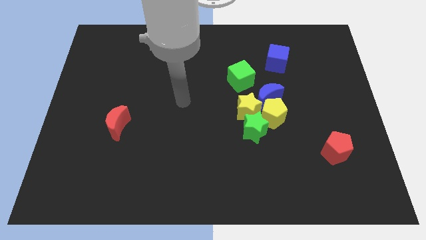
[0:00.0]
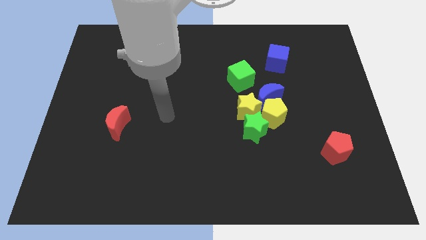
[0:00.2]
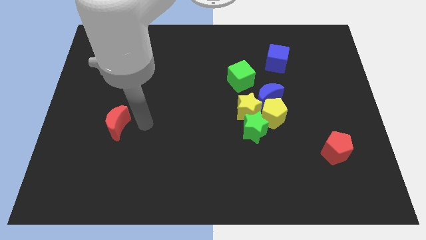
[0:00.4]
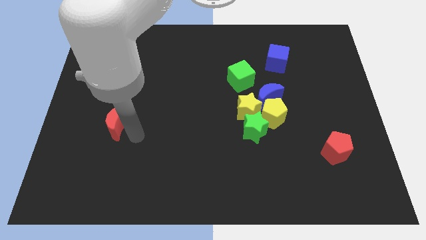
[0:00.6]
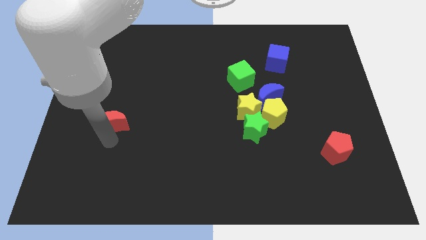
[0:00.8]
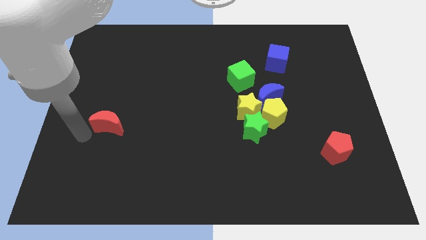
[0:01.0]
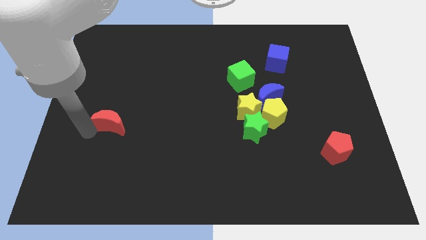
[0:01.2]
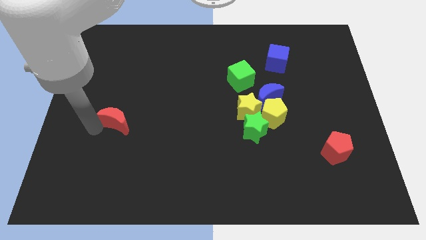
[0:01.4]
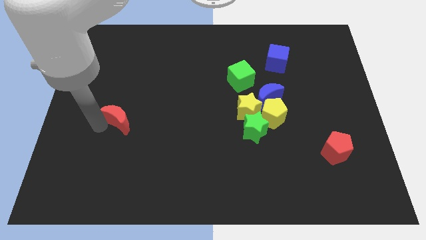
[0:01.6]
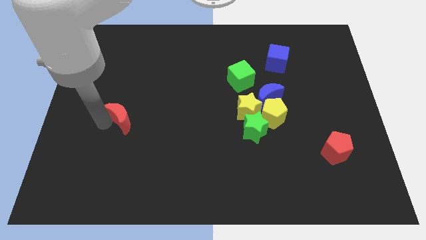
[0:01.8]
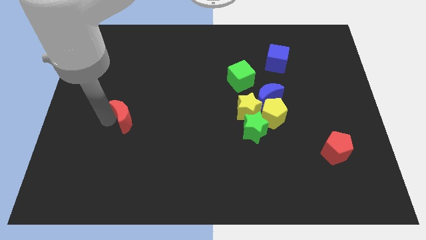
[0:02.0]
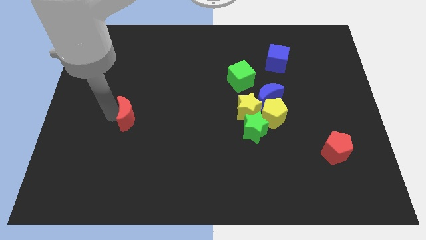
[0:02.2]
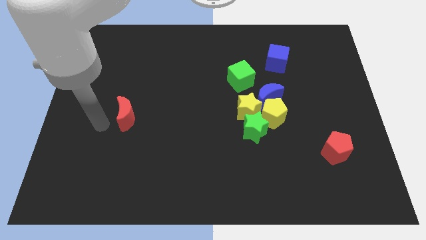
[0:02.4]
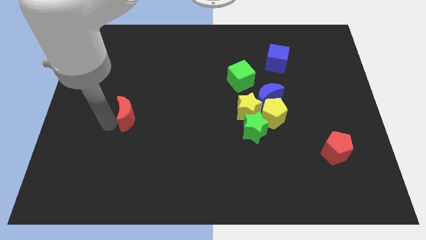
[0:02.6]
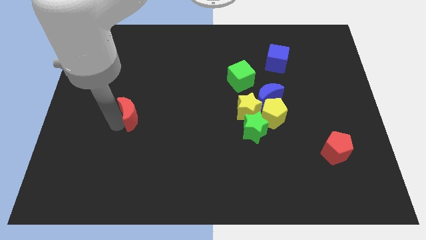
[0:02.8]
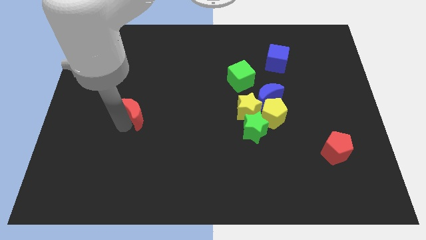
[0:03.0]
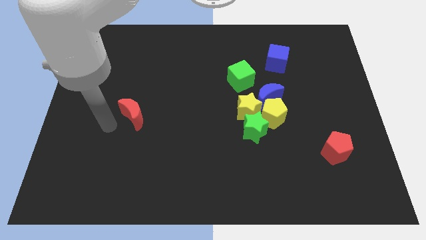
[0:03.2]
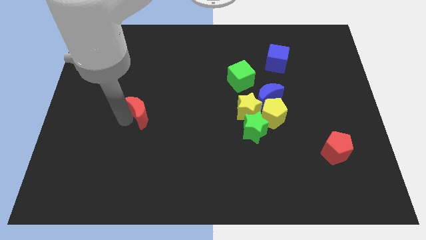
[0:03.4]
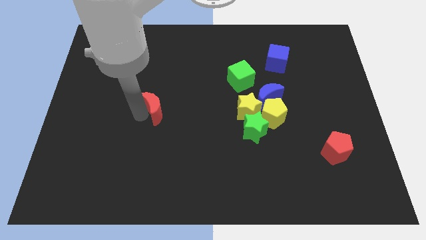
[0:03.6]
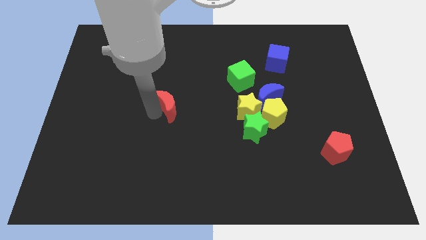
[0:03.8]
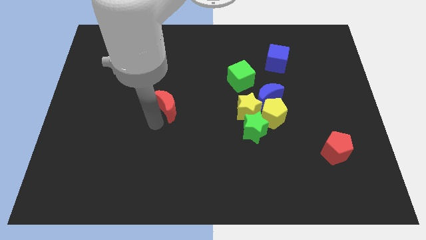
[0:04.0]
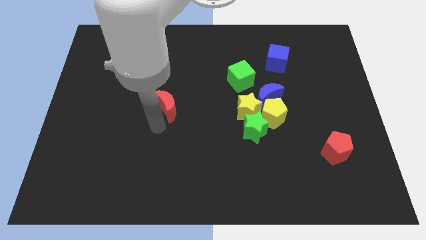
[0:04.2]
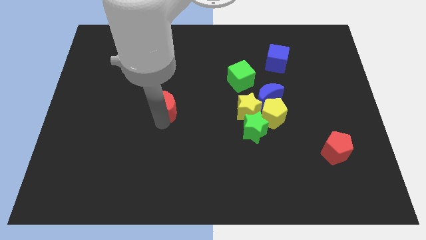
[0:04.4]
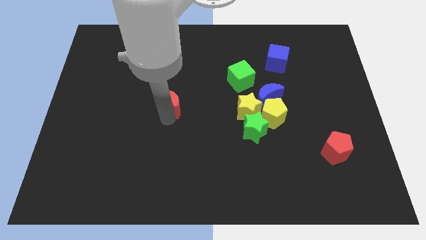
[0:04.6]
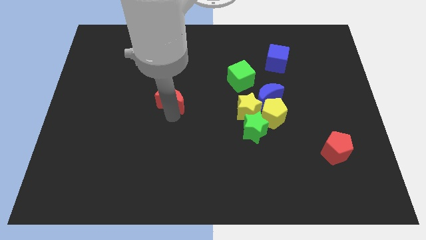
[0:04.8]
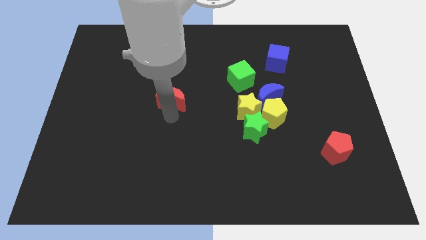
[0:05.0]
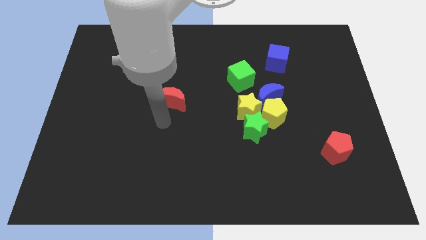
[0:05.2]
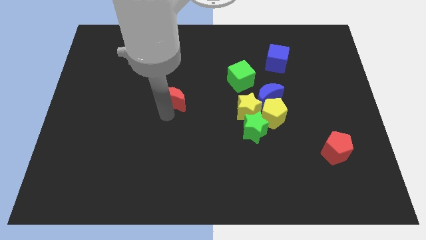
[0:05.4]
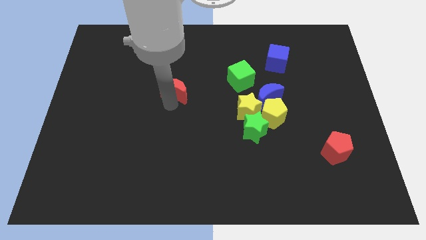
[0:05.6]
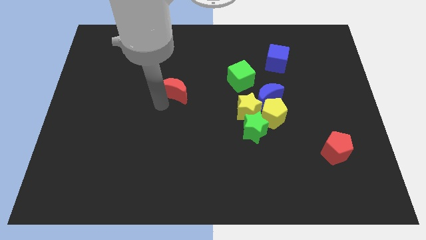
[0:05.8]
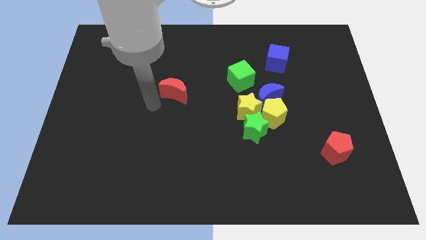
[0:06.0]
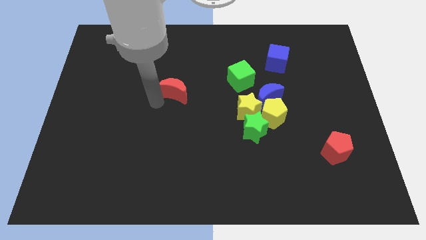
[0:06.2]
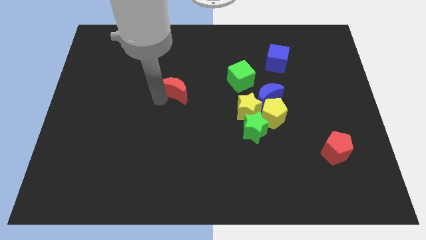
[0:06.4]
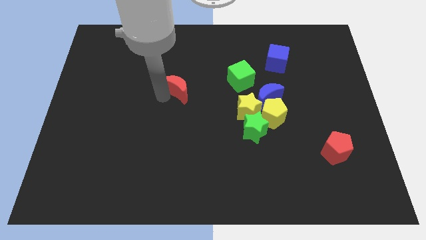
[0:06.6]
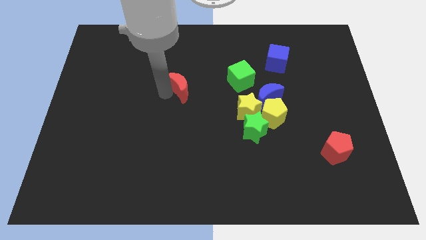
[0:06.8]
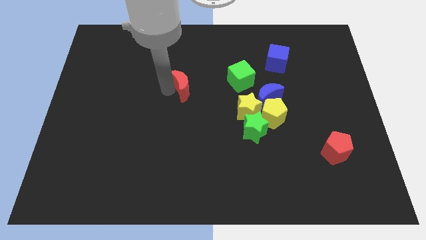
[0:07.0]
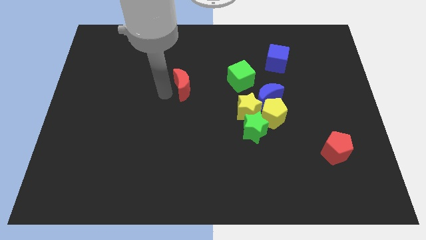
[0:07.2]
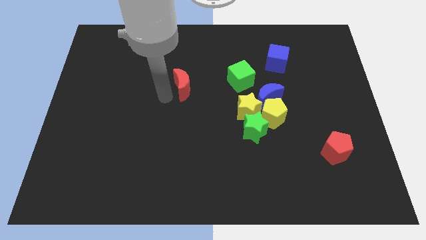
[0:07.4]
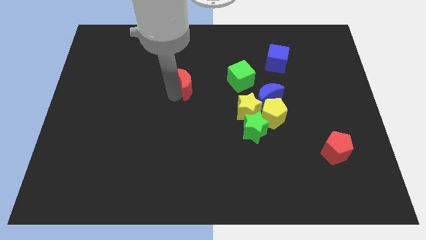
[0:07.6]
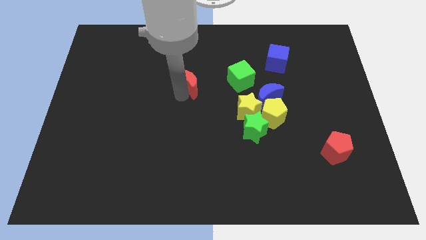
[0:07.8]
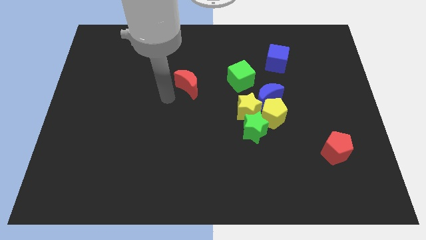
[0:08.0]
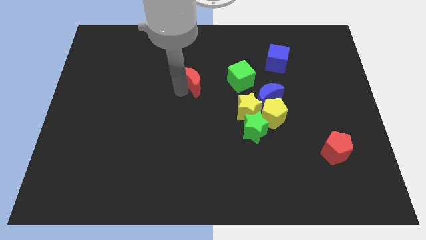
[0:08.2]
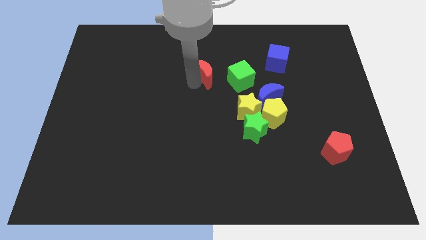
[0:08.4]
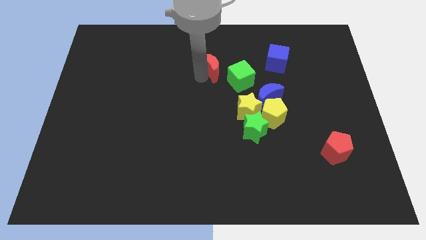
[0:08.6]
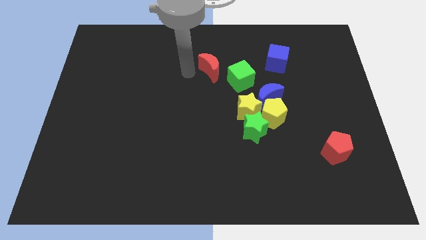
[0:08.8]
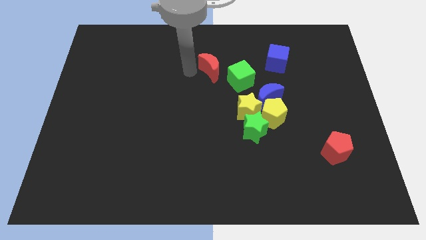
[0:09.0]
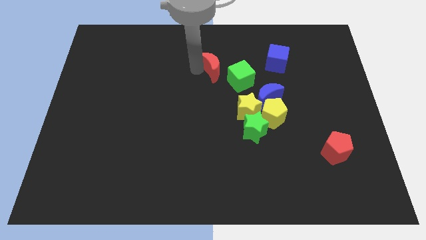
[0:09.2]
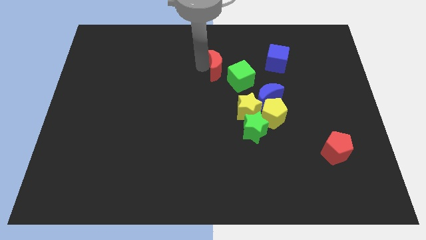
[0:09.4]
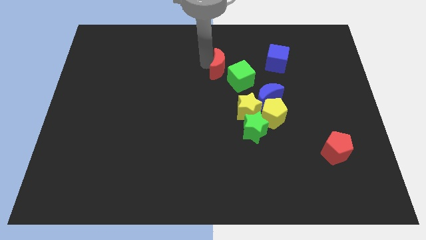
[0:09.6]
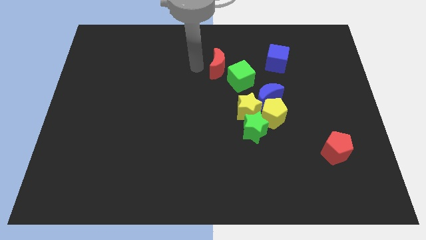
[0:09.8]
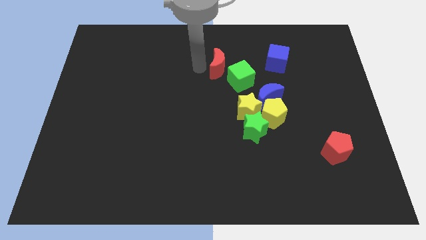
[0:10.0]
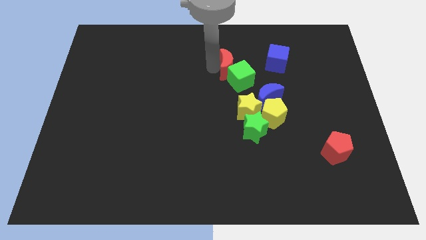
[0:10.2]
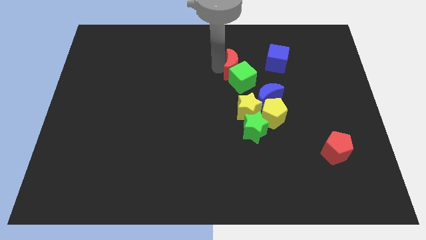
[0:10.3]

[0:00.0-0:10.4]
put the red moon above the yellow star

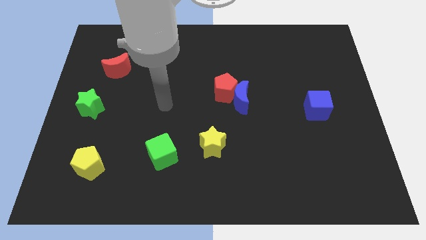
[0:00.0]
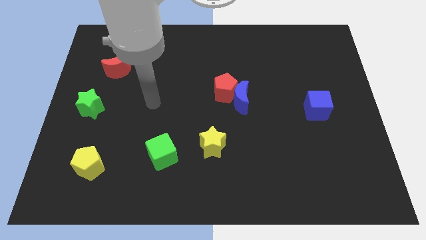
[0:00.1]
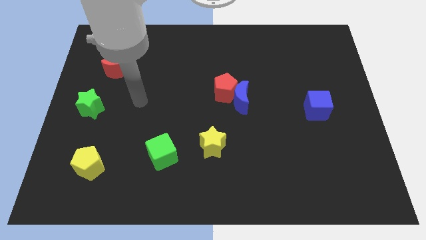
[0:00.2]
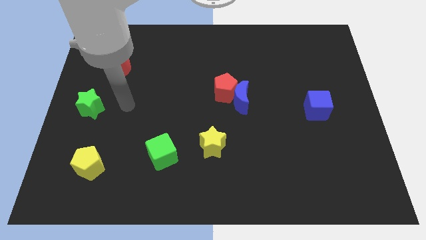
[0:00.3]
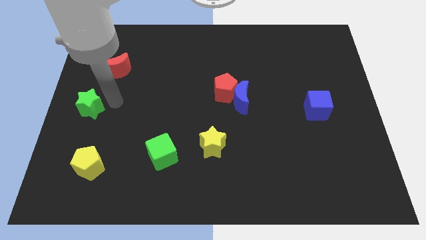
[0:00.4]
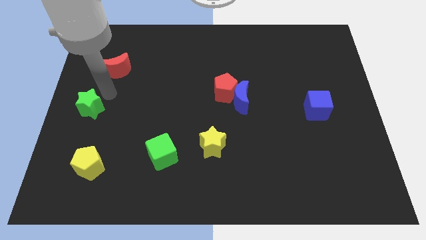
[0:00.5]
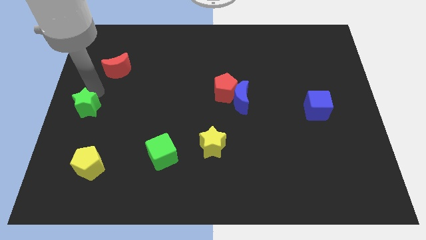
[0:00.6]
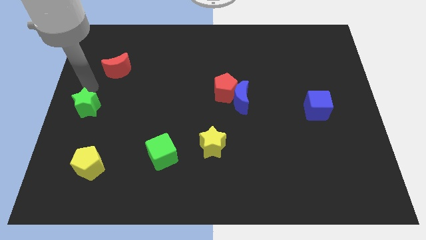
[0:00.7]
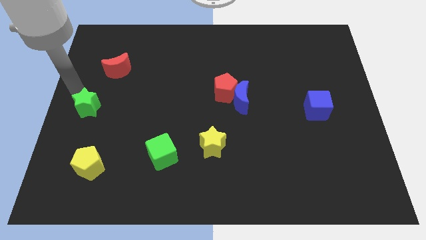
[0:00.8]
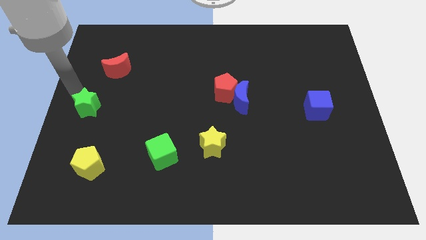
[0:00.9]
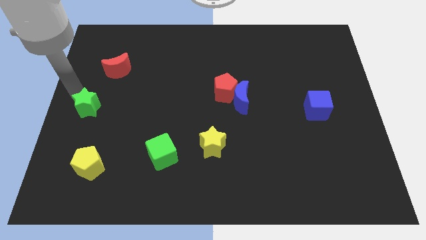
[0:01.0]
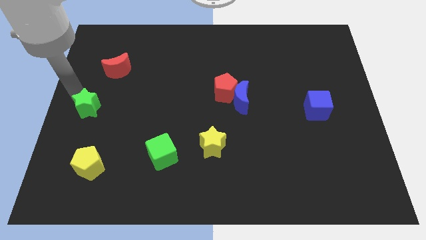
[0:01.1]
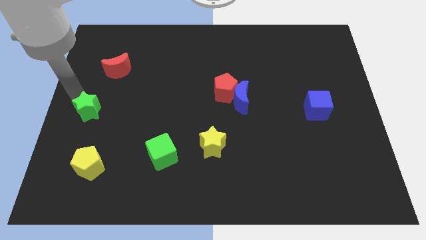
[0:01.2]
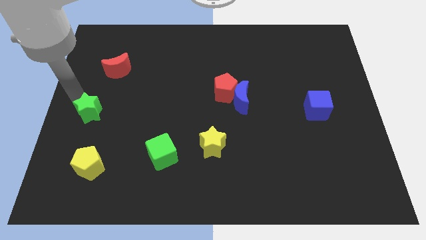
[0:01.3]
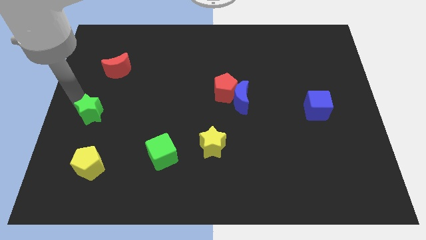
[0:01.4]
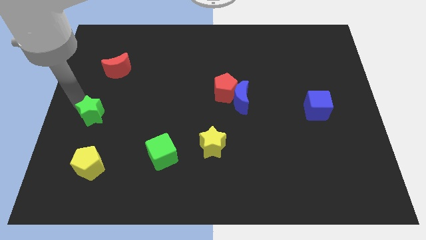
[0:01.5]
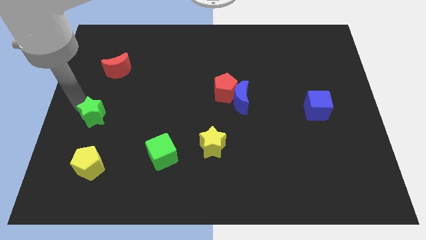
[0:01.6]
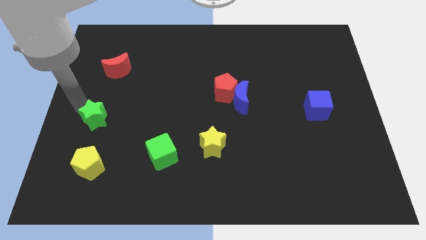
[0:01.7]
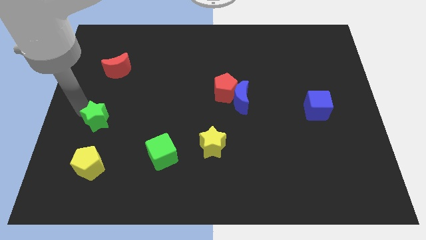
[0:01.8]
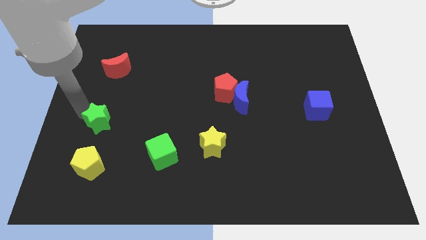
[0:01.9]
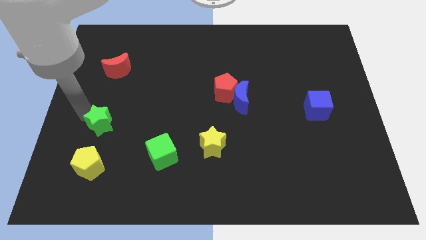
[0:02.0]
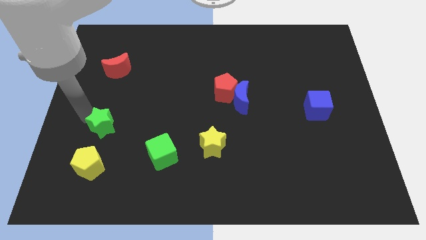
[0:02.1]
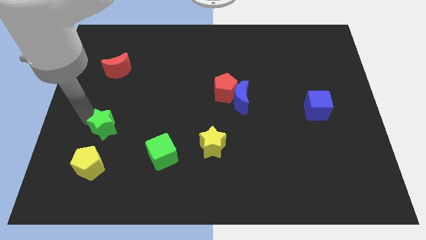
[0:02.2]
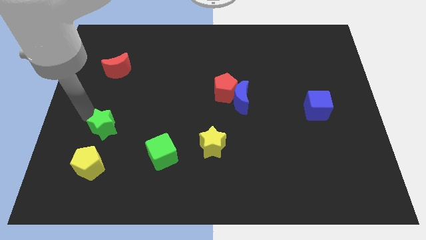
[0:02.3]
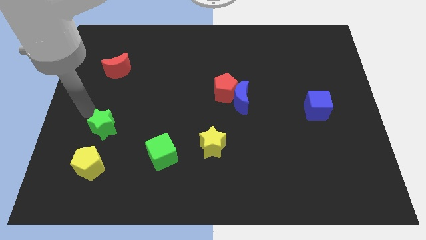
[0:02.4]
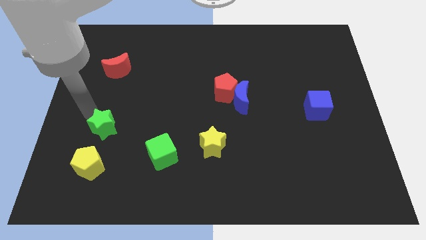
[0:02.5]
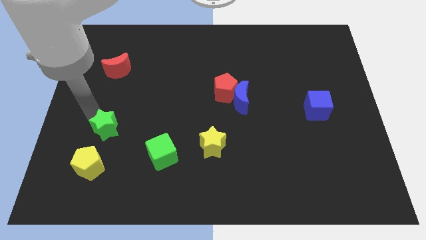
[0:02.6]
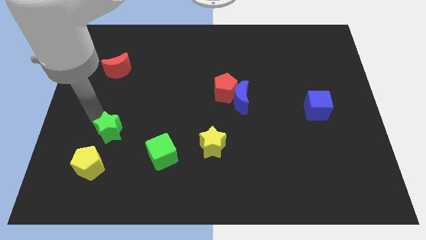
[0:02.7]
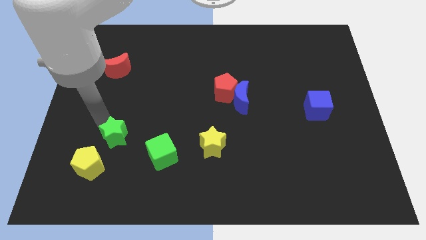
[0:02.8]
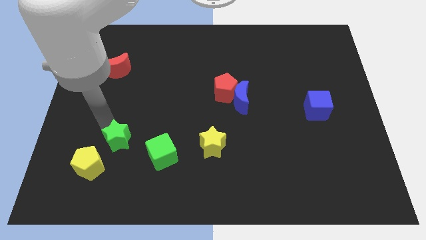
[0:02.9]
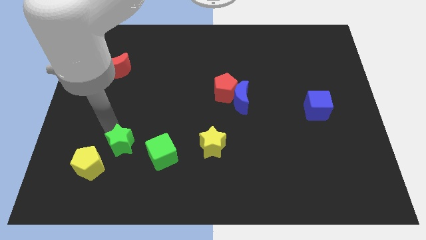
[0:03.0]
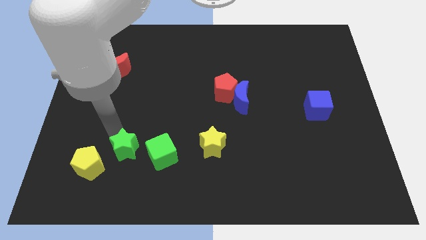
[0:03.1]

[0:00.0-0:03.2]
slide the green star just right of the yellow pentagon
